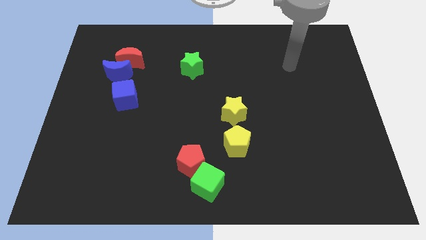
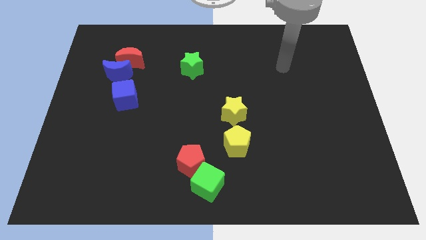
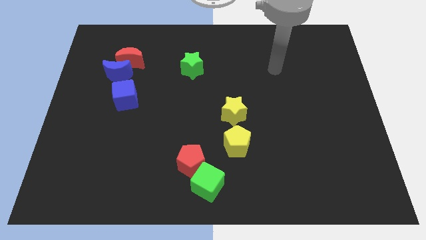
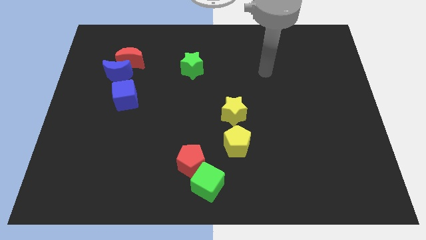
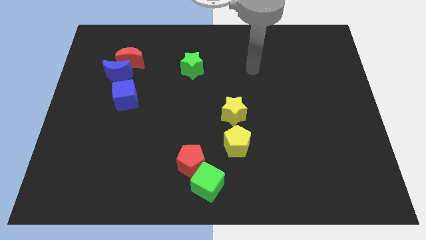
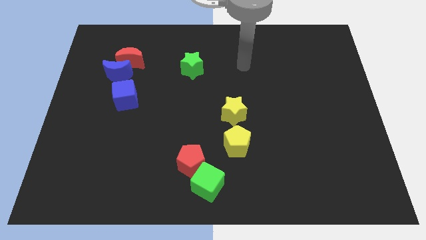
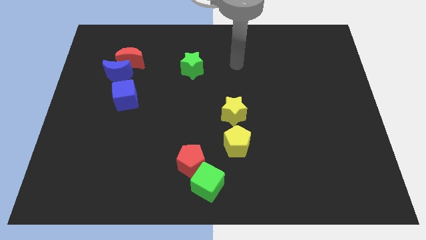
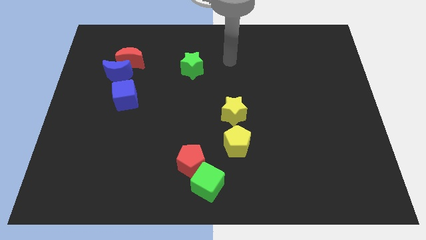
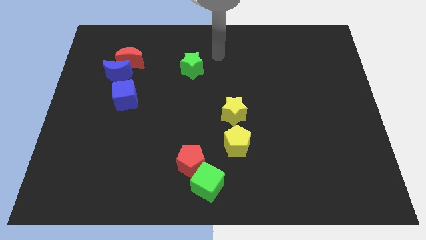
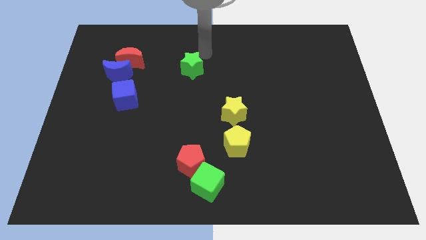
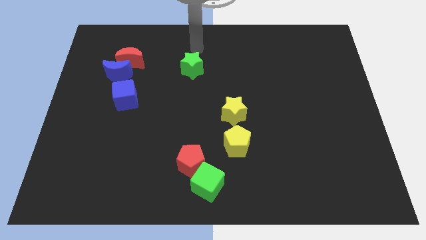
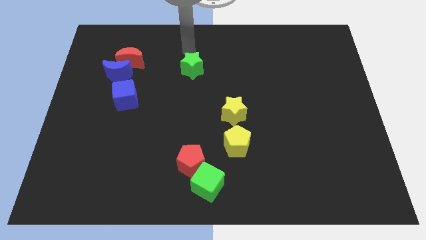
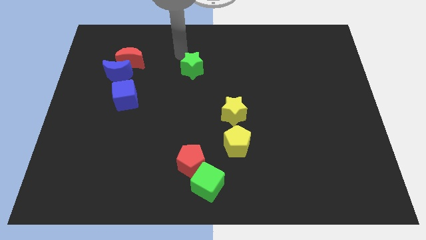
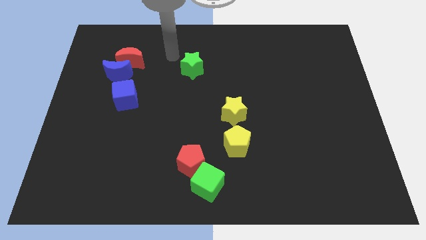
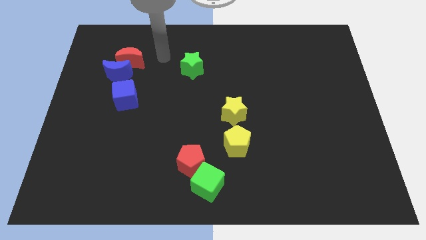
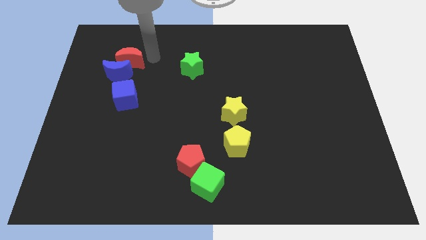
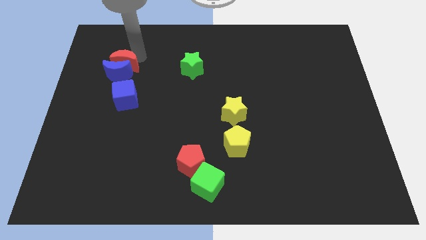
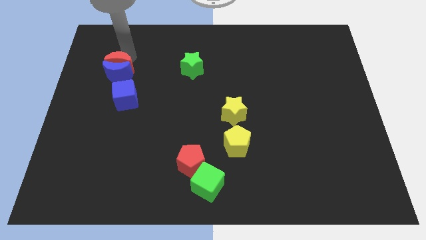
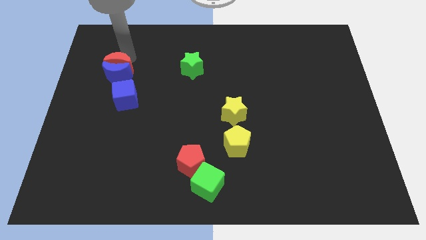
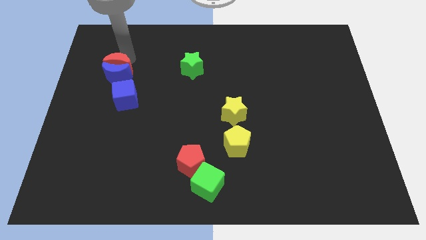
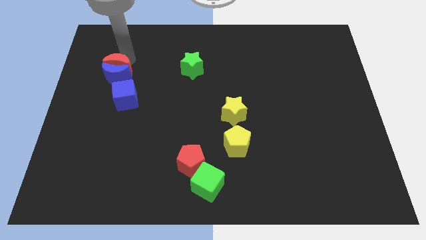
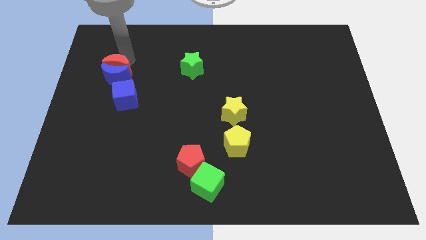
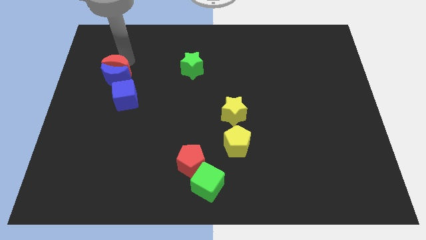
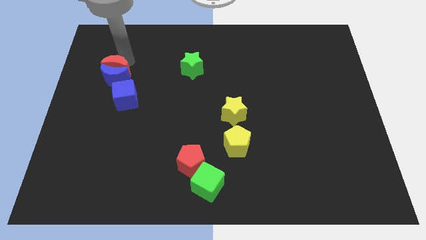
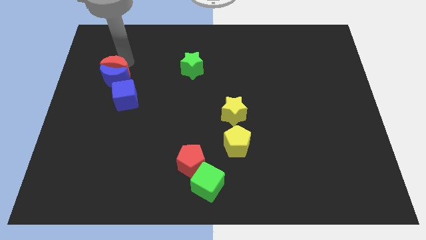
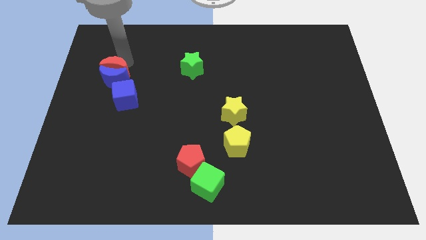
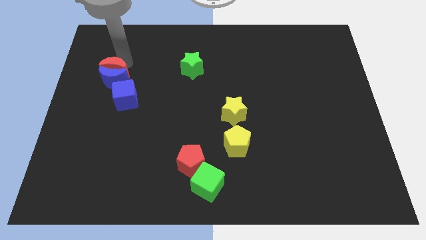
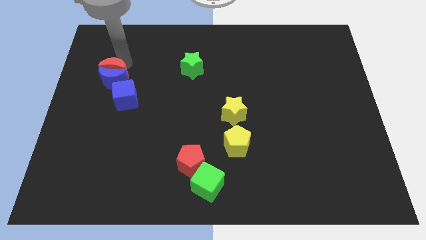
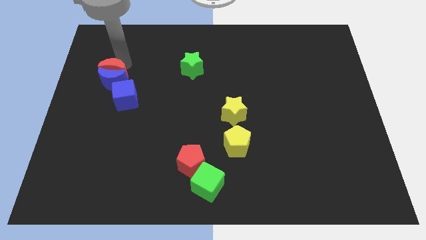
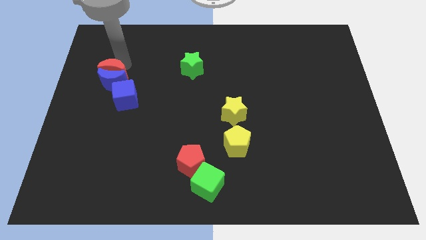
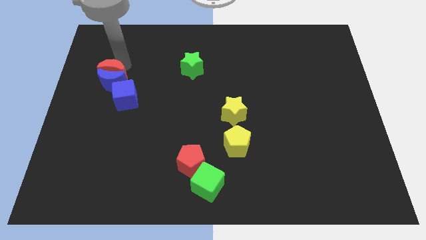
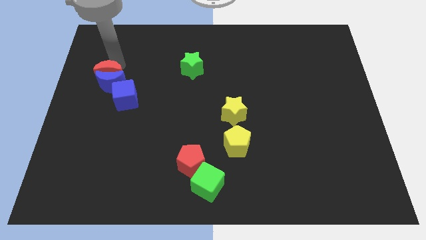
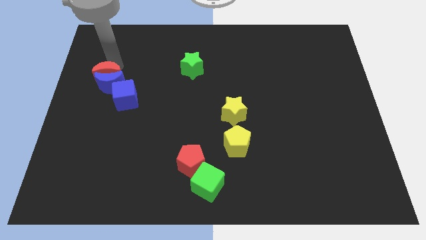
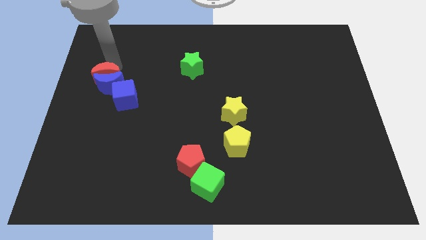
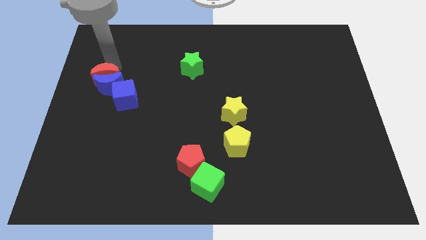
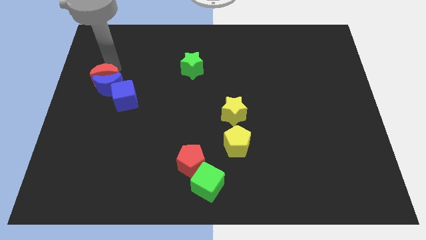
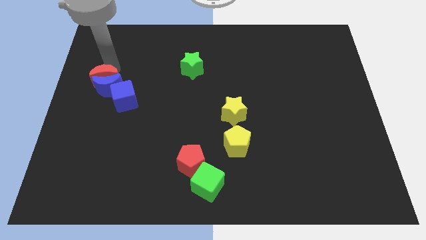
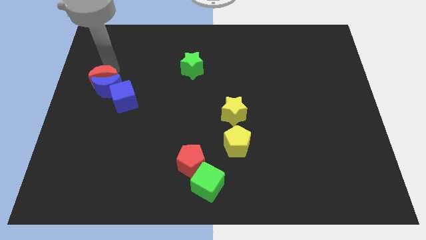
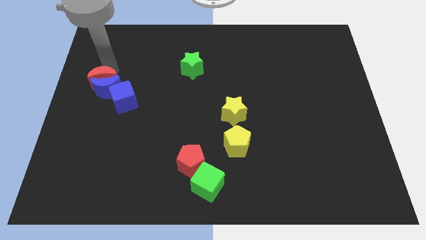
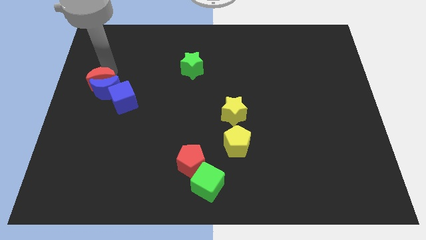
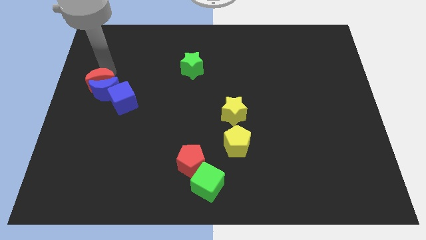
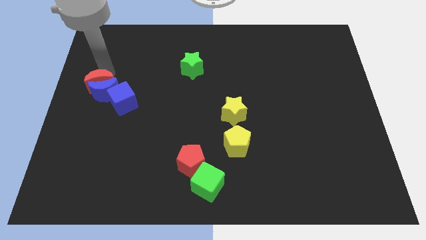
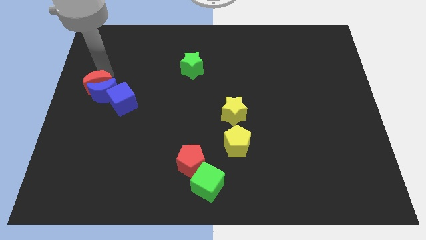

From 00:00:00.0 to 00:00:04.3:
push the blue moon down a little

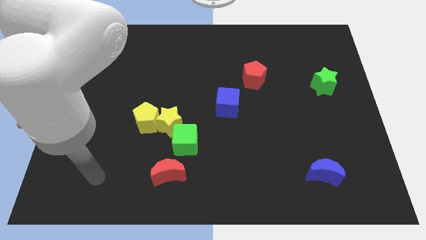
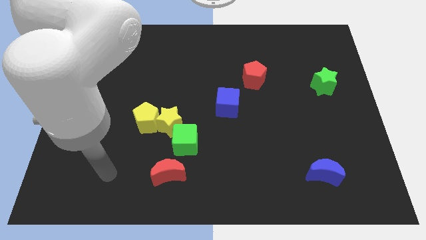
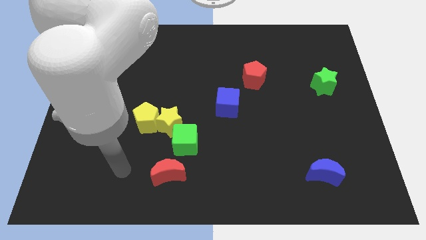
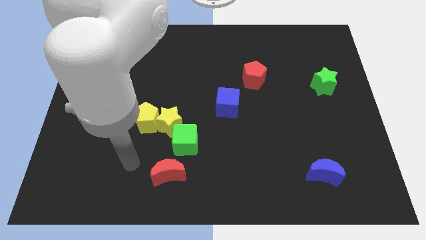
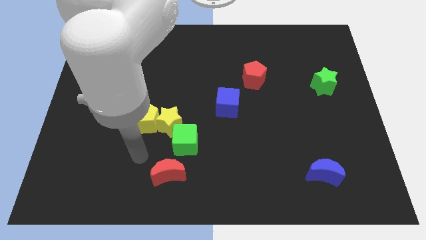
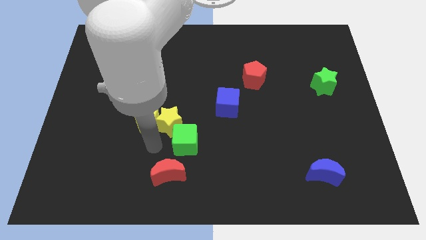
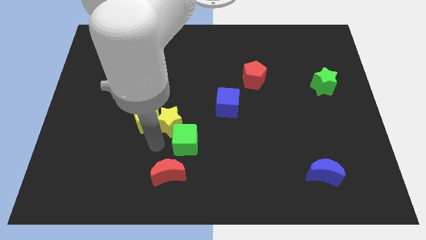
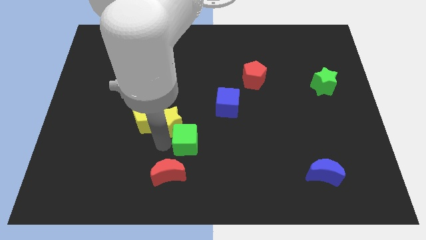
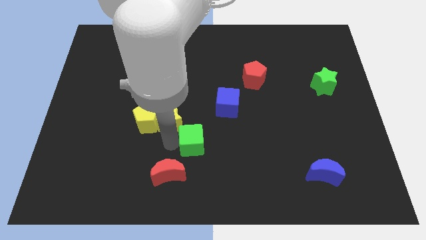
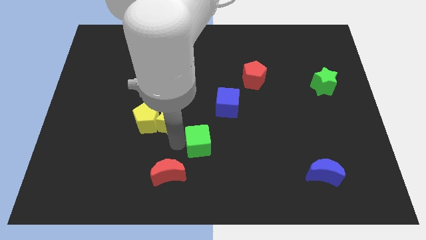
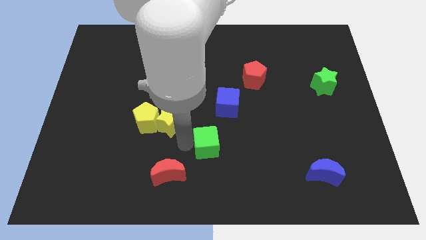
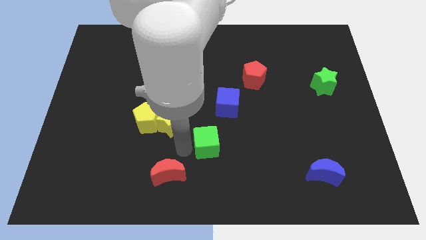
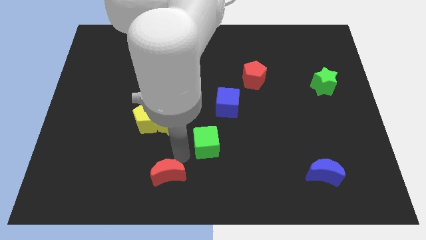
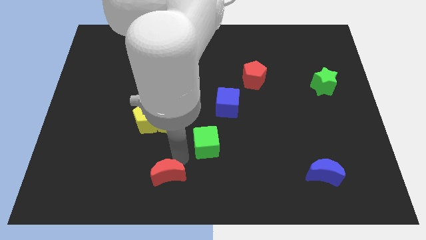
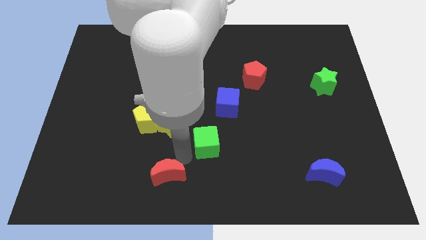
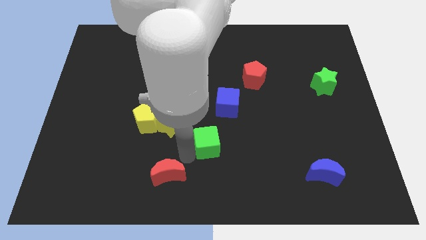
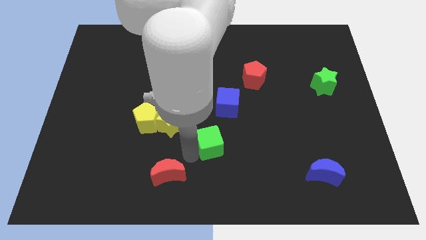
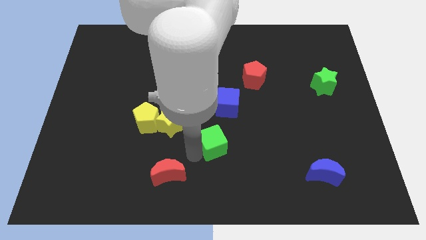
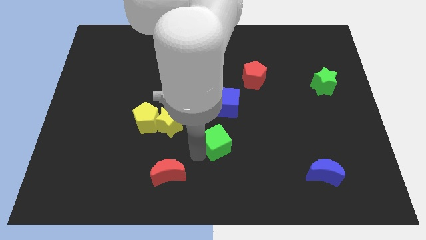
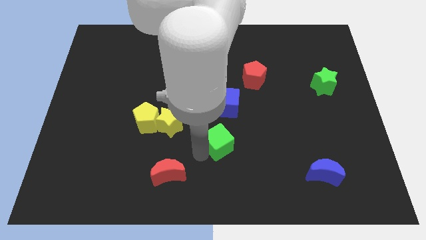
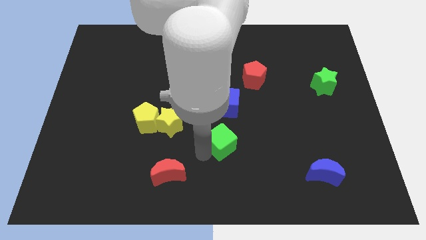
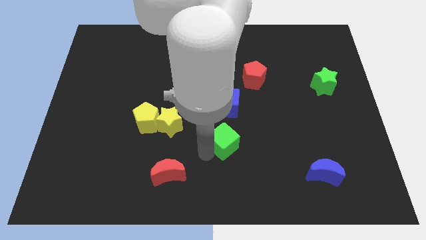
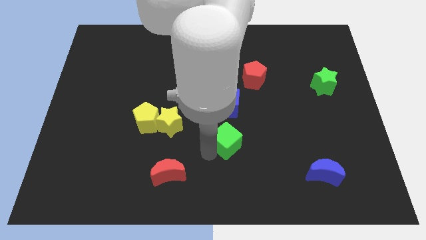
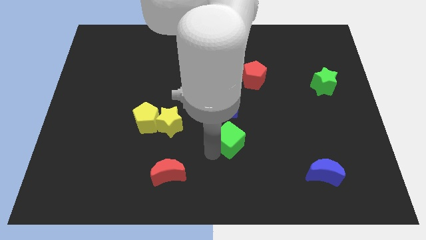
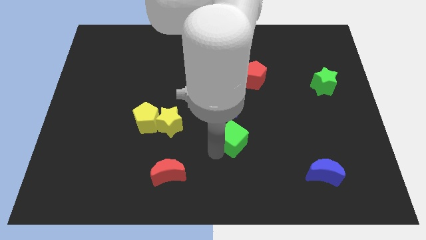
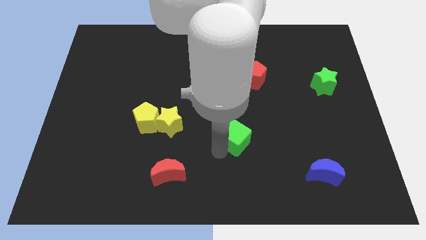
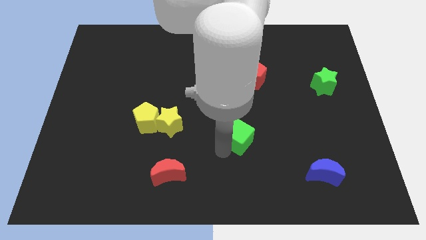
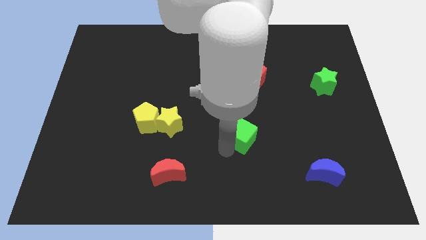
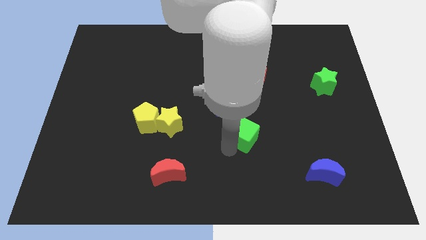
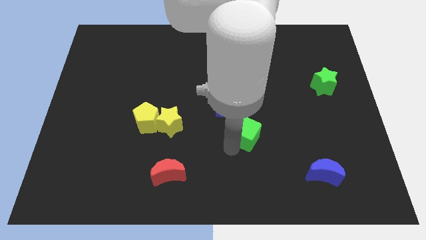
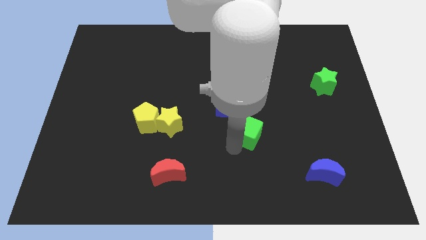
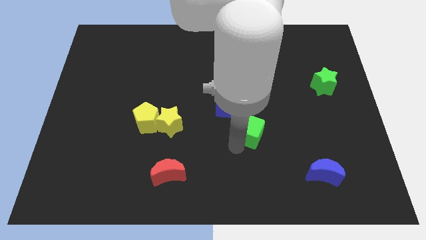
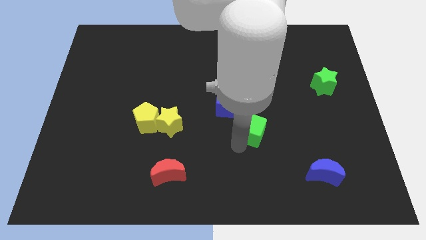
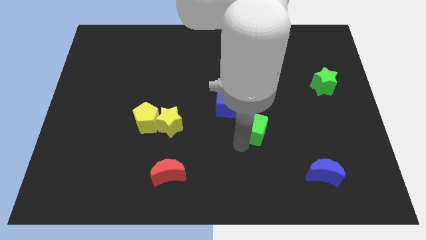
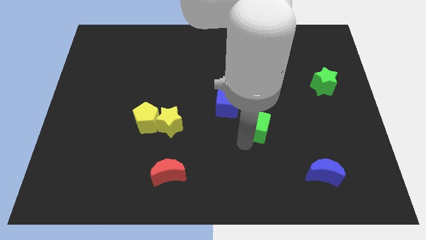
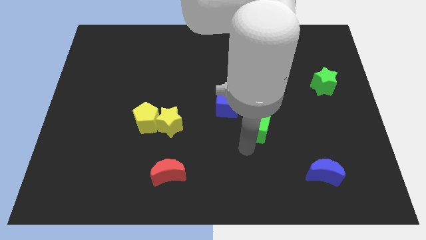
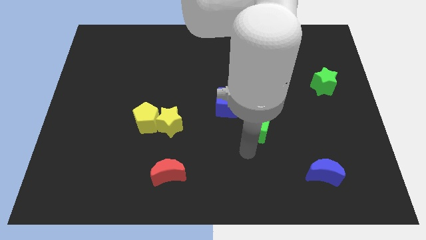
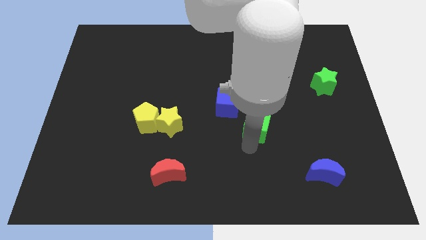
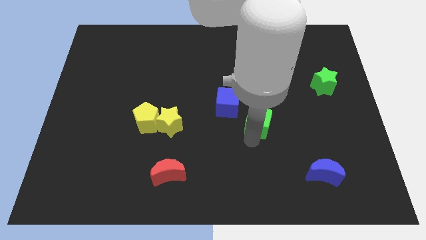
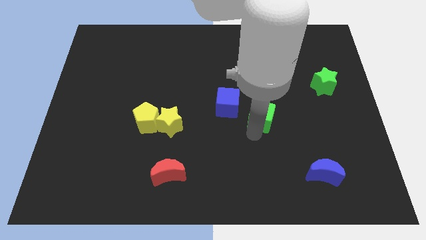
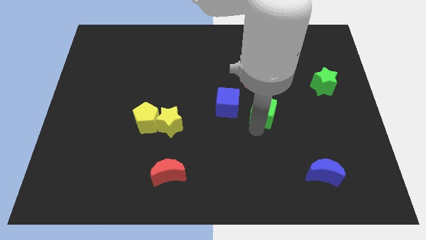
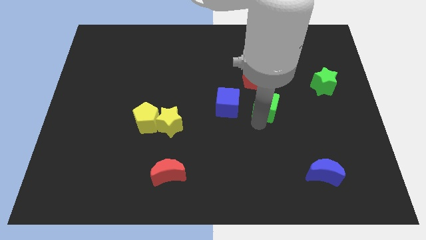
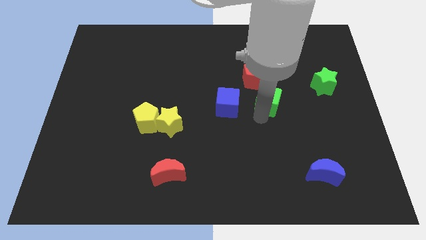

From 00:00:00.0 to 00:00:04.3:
push the green cube up and right
